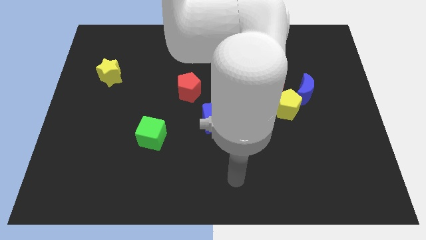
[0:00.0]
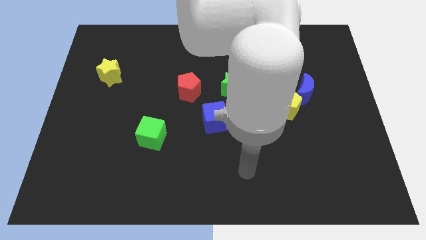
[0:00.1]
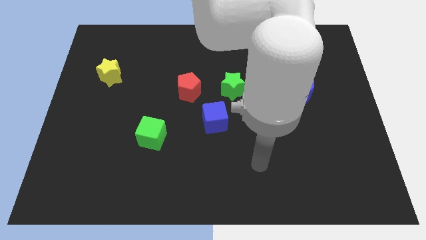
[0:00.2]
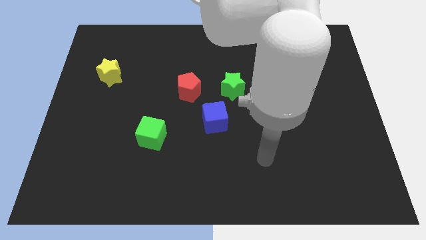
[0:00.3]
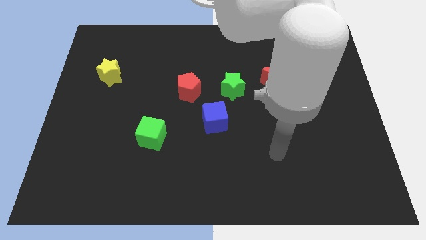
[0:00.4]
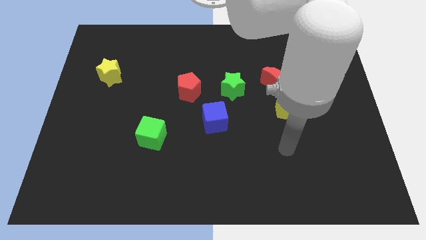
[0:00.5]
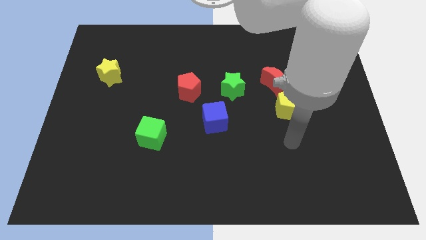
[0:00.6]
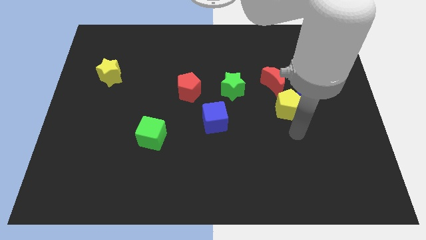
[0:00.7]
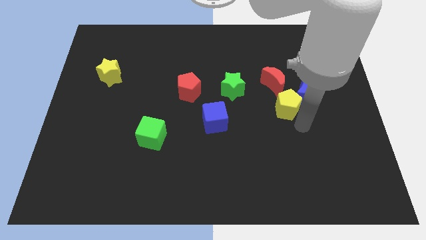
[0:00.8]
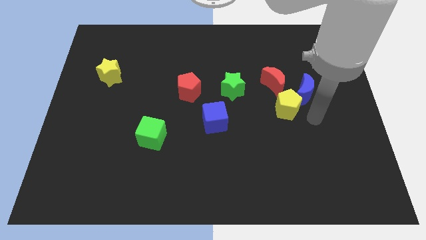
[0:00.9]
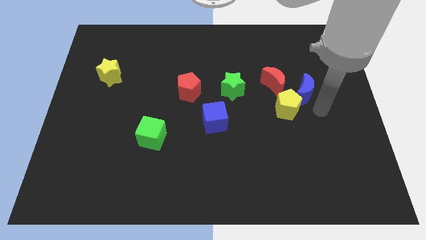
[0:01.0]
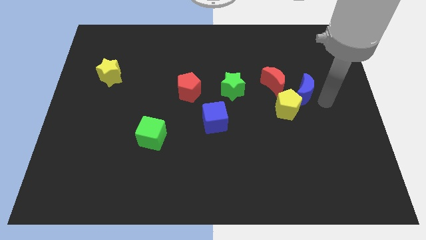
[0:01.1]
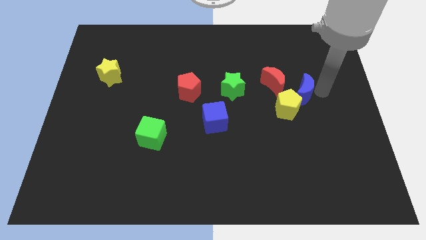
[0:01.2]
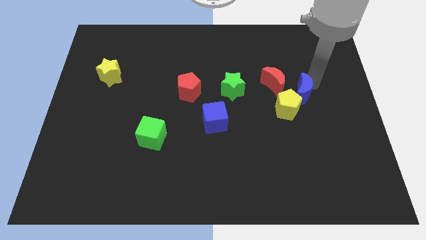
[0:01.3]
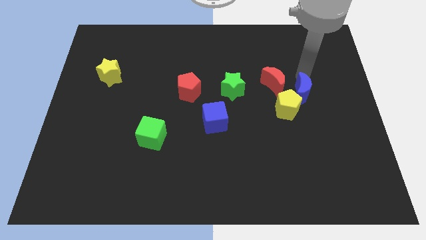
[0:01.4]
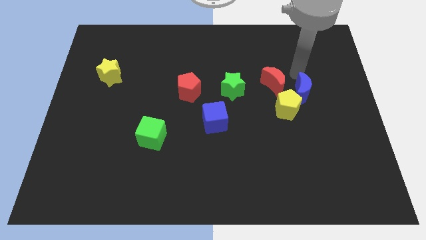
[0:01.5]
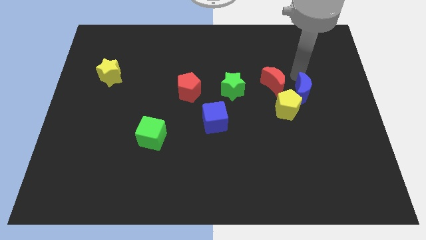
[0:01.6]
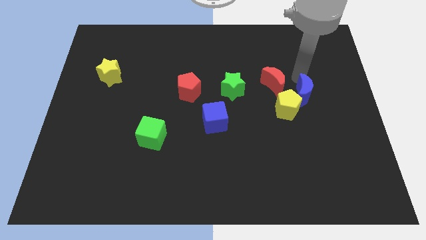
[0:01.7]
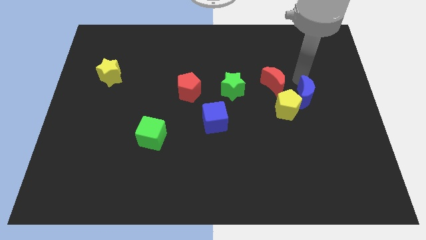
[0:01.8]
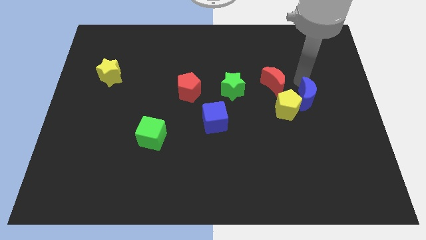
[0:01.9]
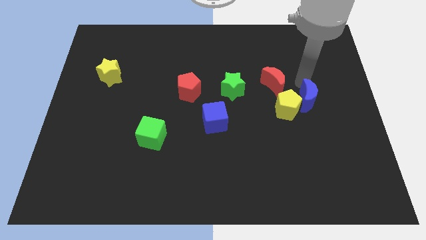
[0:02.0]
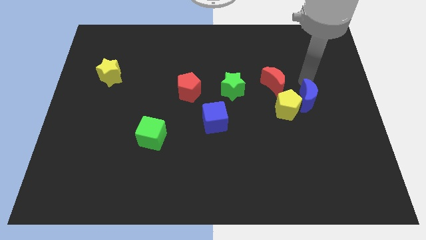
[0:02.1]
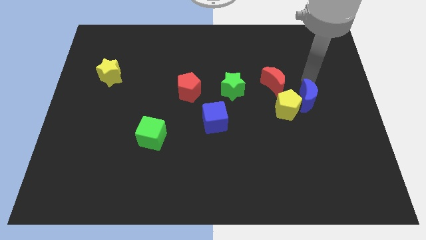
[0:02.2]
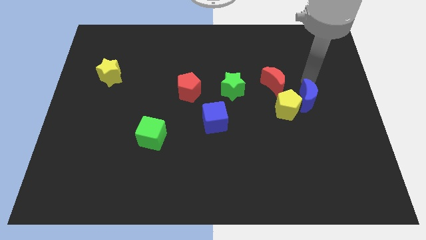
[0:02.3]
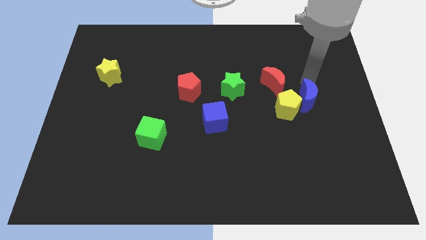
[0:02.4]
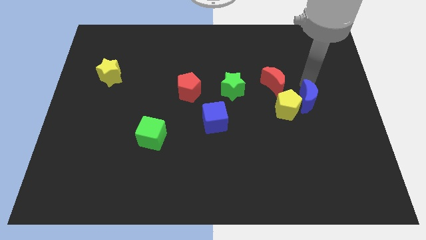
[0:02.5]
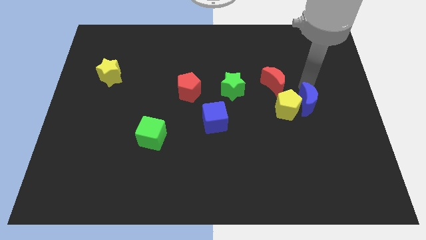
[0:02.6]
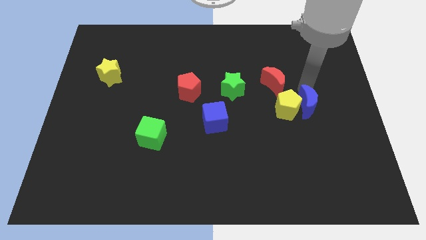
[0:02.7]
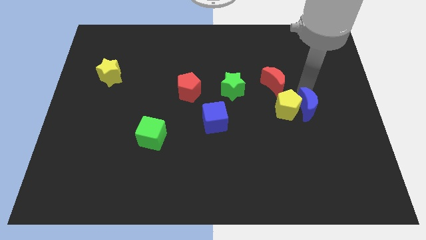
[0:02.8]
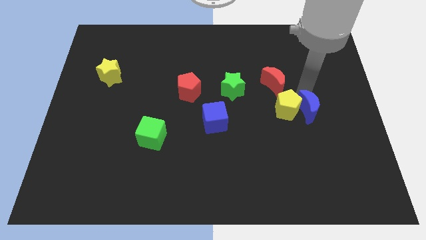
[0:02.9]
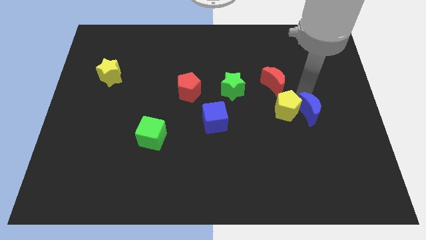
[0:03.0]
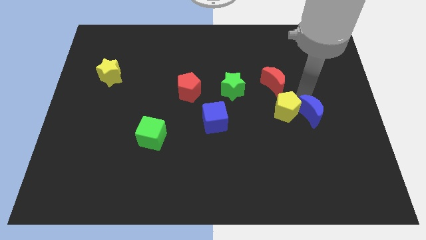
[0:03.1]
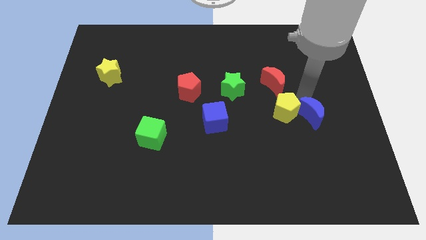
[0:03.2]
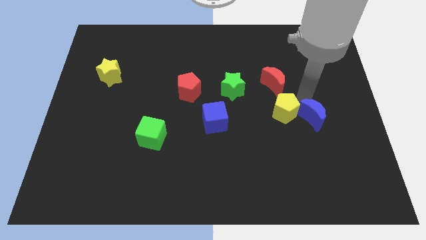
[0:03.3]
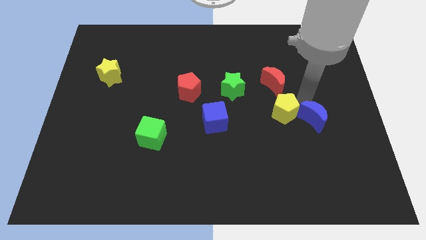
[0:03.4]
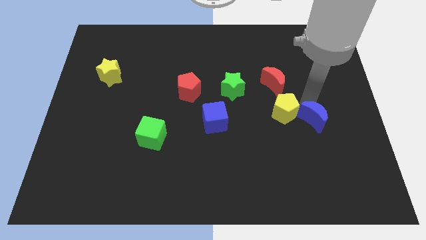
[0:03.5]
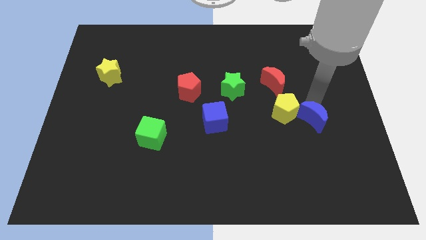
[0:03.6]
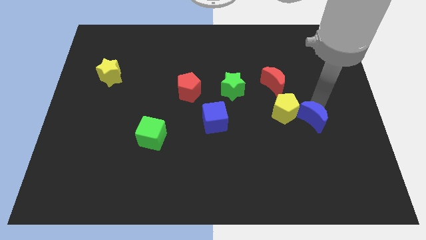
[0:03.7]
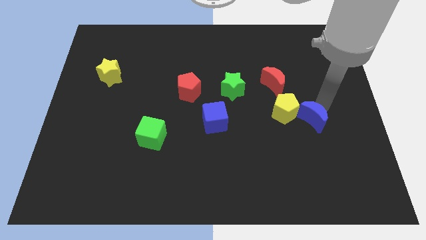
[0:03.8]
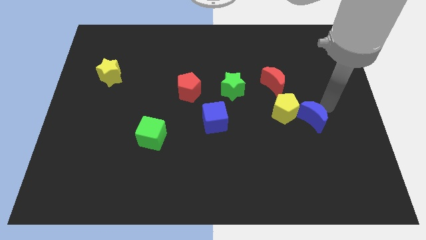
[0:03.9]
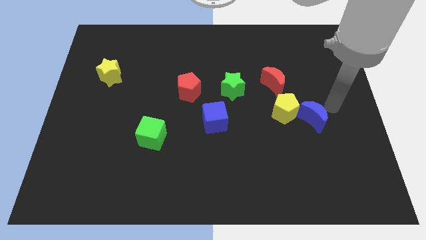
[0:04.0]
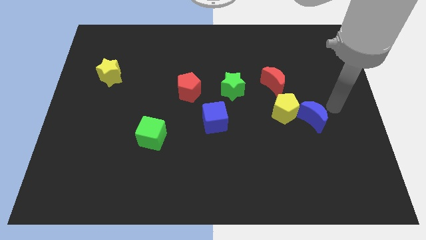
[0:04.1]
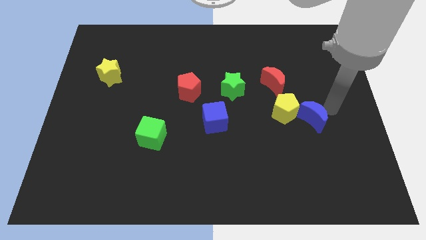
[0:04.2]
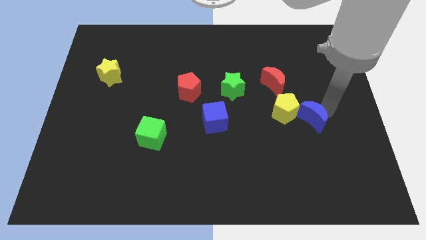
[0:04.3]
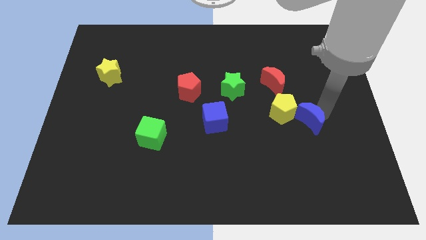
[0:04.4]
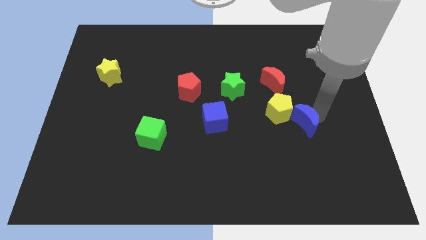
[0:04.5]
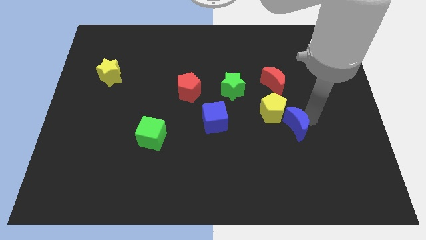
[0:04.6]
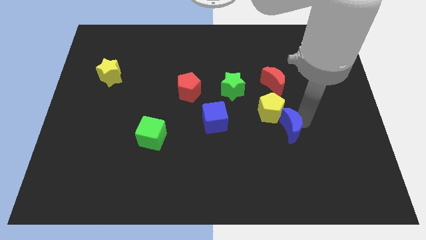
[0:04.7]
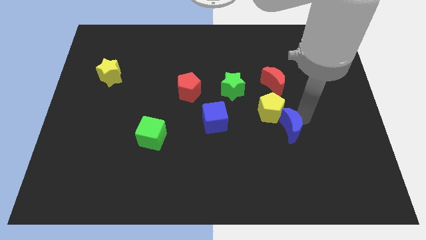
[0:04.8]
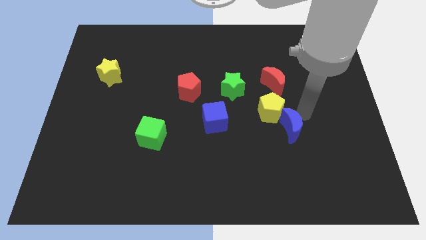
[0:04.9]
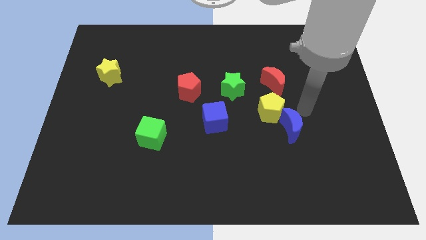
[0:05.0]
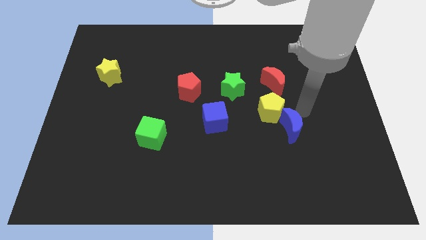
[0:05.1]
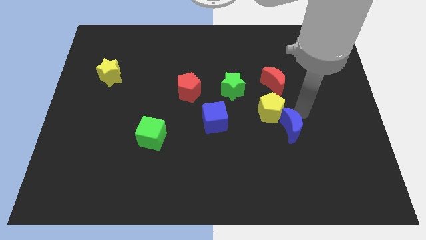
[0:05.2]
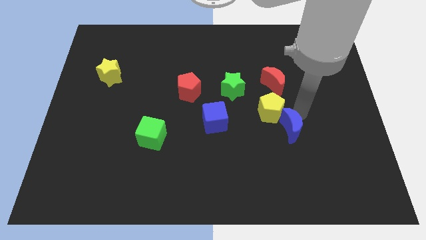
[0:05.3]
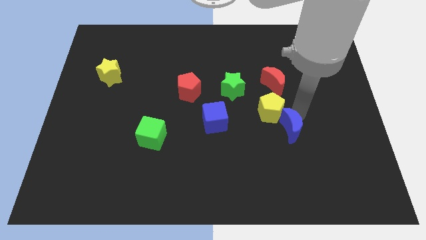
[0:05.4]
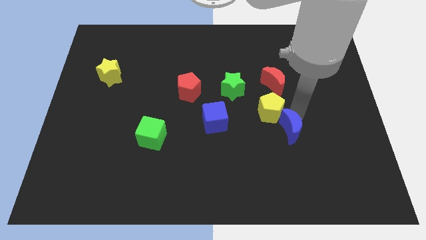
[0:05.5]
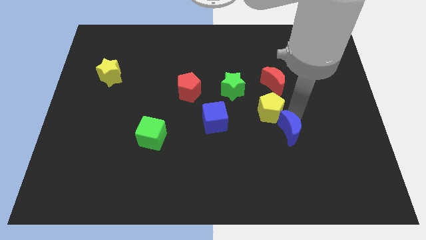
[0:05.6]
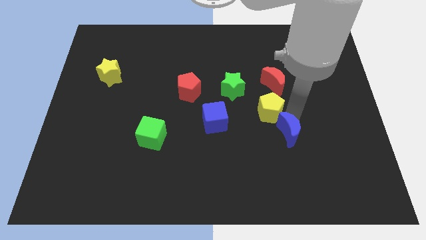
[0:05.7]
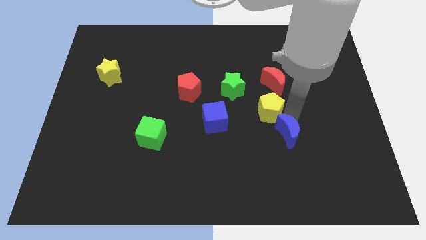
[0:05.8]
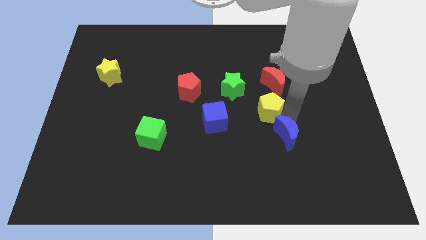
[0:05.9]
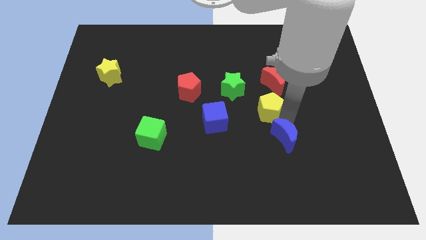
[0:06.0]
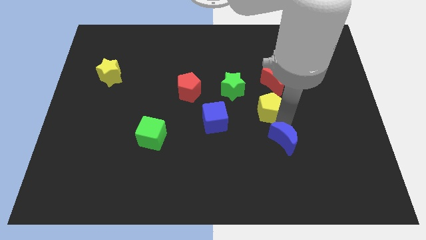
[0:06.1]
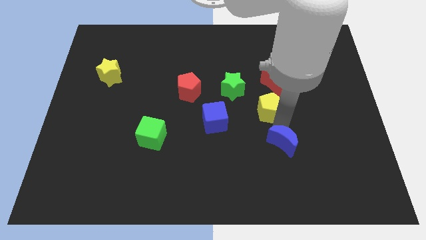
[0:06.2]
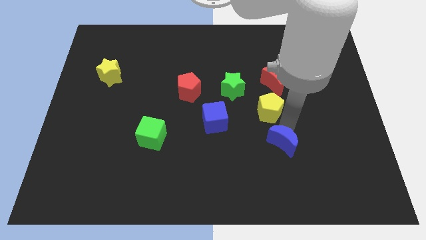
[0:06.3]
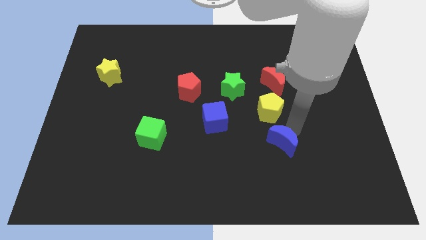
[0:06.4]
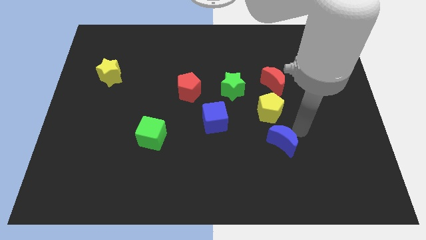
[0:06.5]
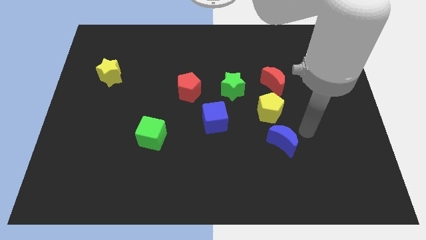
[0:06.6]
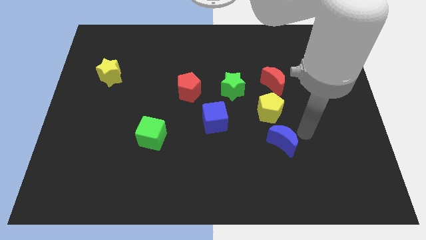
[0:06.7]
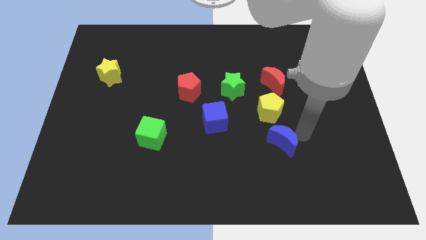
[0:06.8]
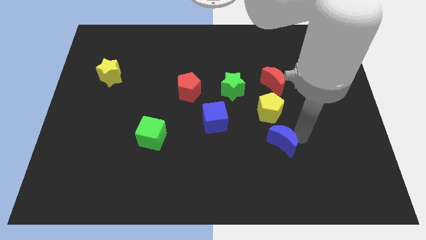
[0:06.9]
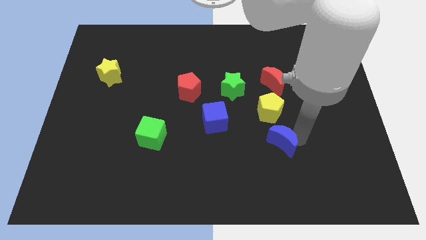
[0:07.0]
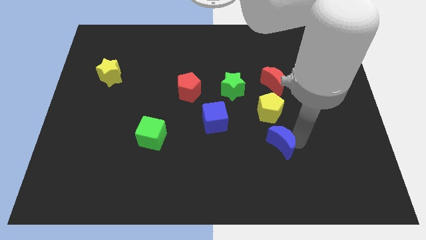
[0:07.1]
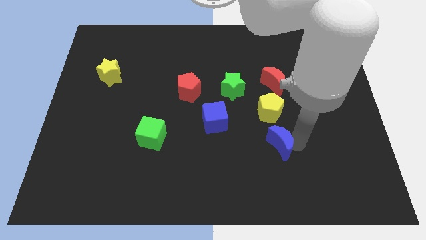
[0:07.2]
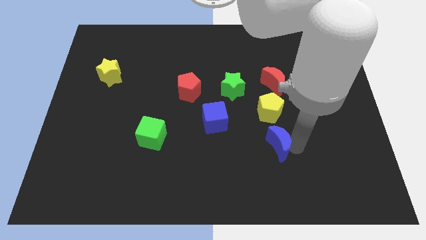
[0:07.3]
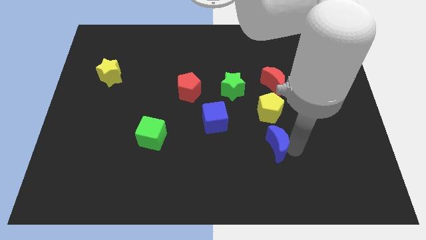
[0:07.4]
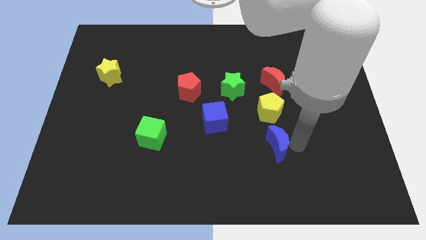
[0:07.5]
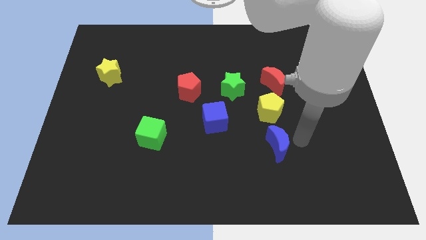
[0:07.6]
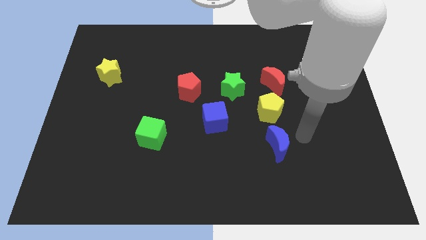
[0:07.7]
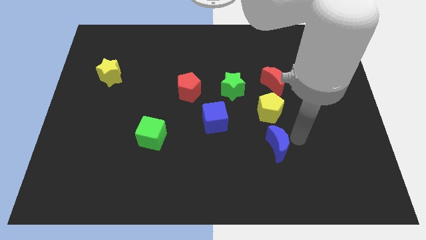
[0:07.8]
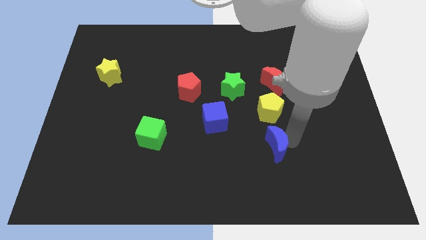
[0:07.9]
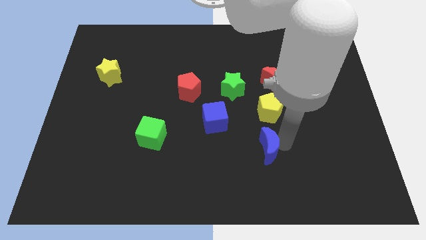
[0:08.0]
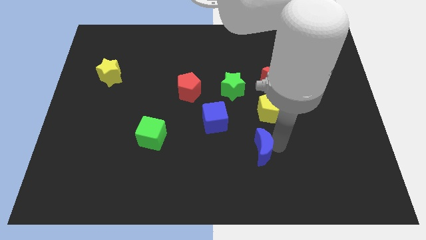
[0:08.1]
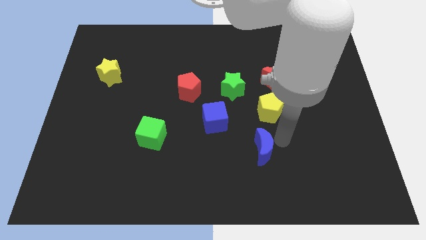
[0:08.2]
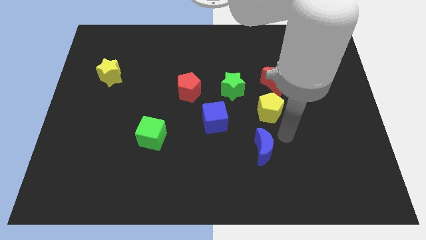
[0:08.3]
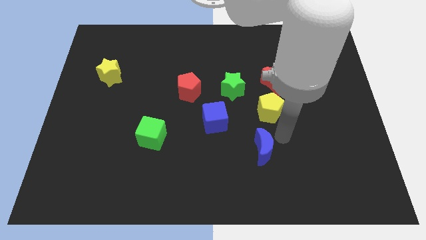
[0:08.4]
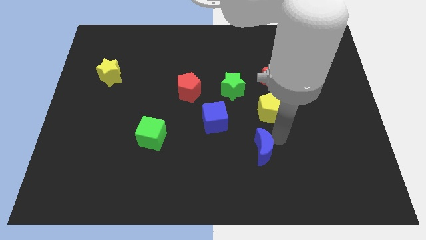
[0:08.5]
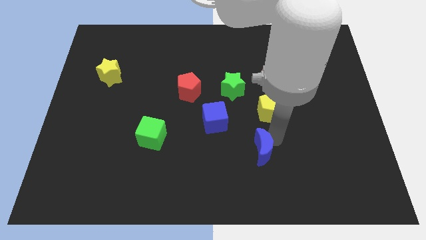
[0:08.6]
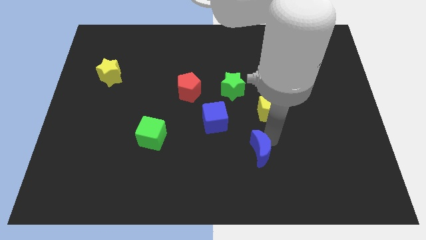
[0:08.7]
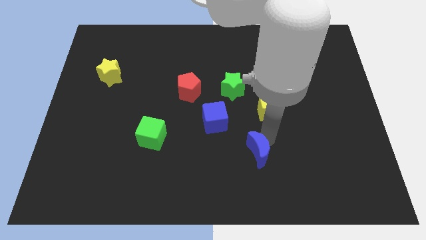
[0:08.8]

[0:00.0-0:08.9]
move the blue moon diagonally down and to the left
